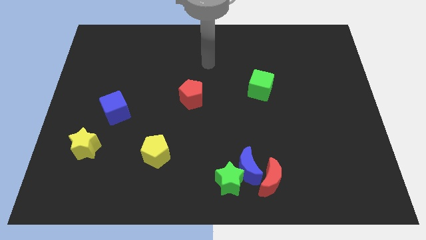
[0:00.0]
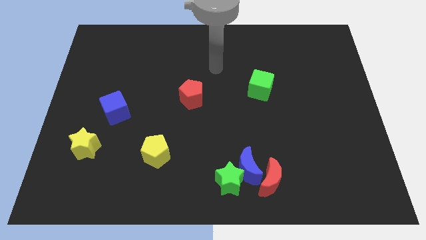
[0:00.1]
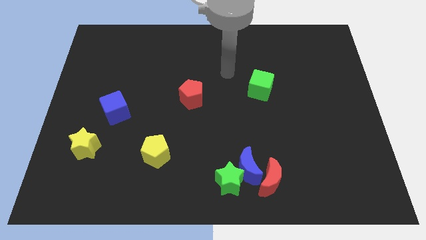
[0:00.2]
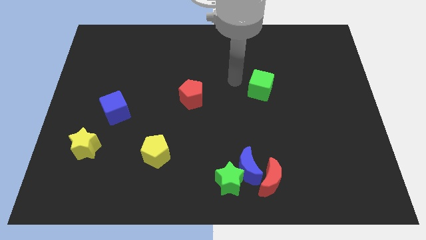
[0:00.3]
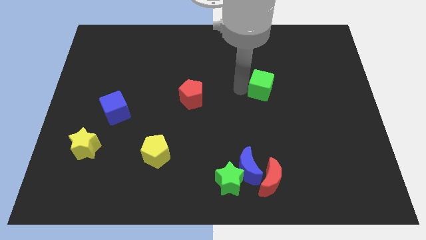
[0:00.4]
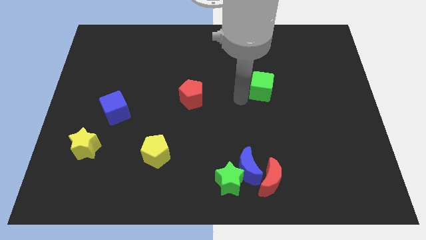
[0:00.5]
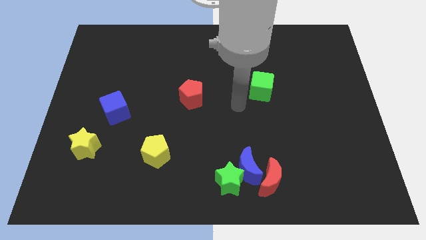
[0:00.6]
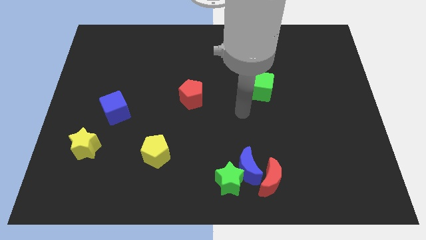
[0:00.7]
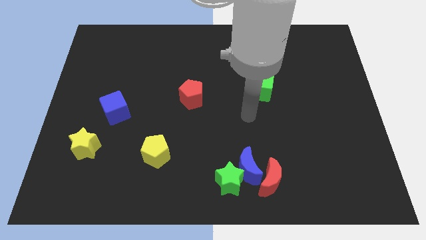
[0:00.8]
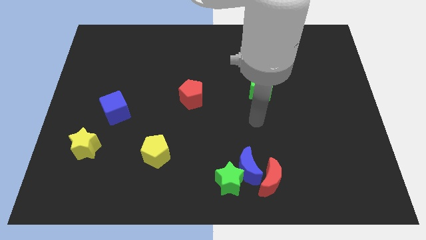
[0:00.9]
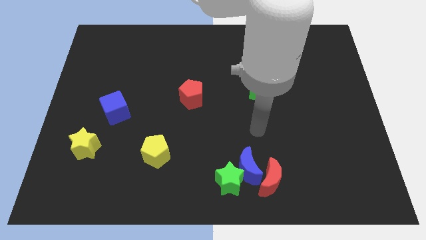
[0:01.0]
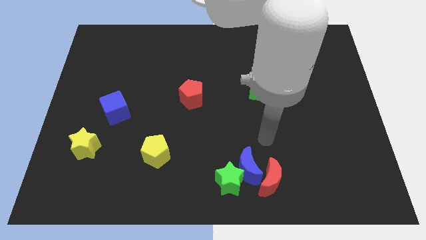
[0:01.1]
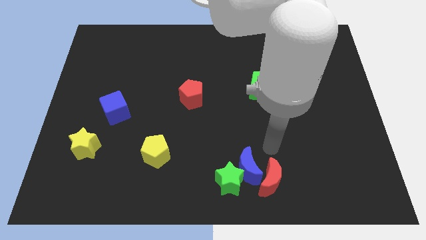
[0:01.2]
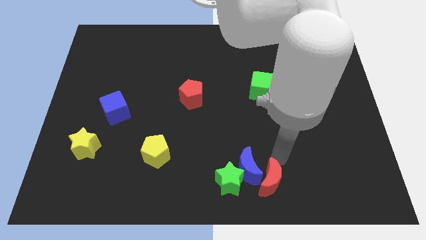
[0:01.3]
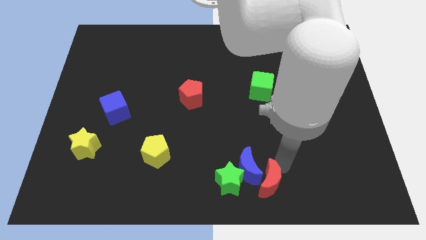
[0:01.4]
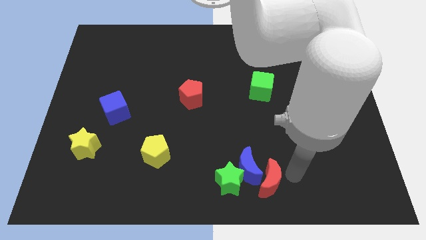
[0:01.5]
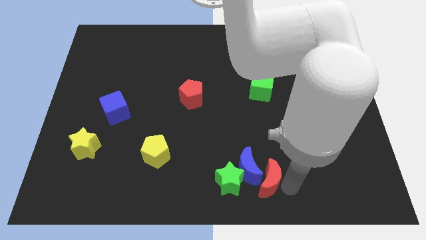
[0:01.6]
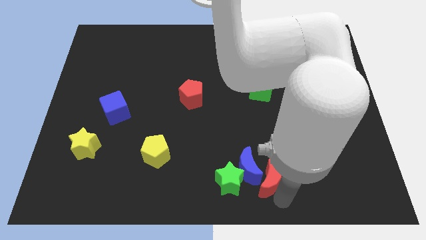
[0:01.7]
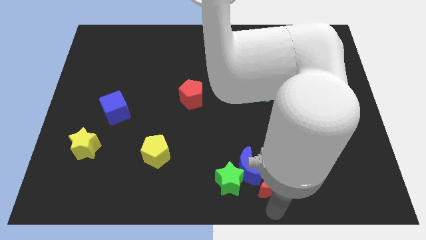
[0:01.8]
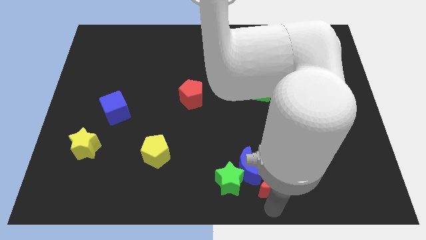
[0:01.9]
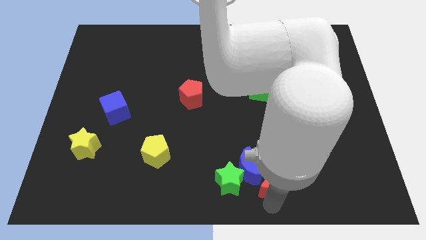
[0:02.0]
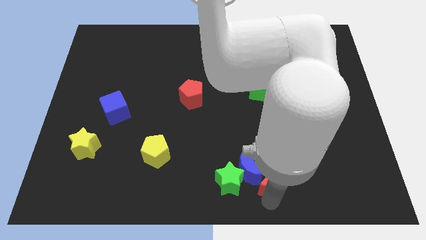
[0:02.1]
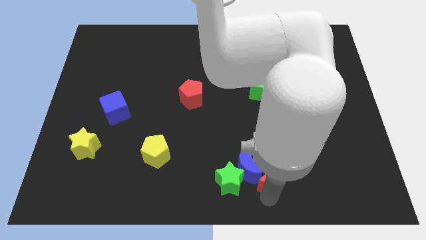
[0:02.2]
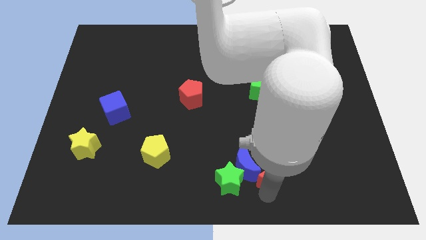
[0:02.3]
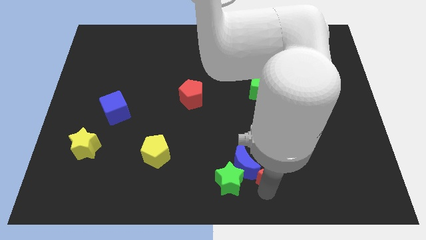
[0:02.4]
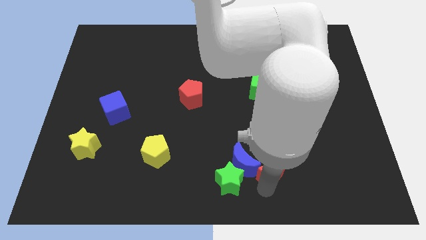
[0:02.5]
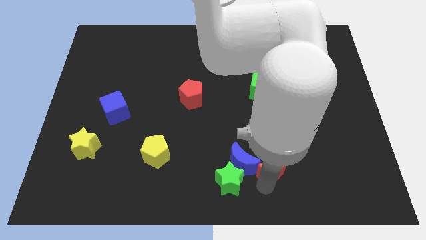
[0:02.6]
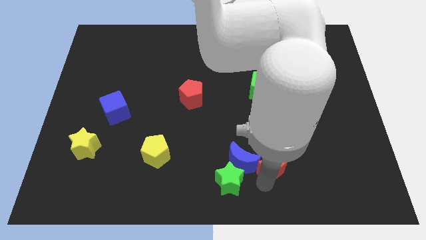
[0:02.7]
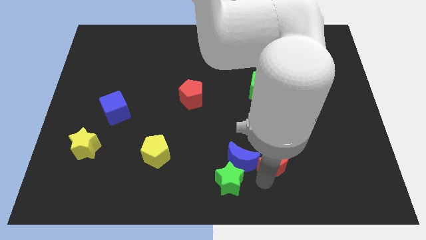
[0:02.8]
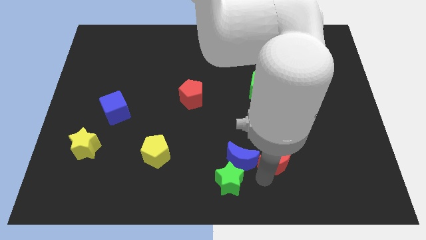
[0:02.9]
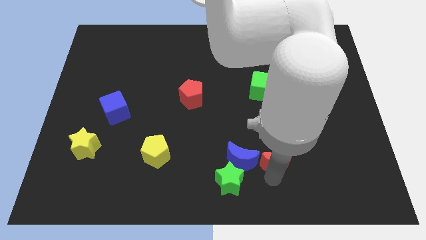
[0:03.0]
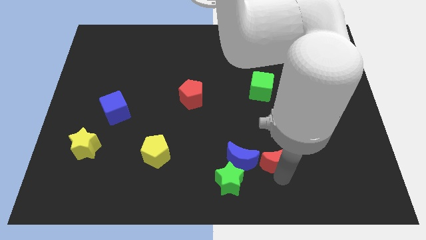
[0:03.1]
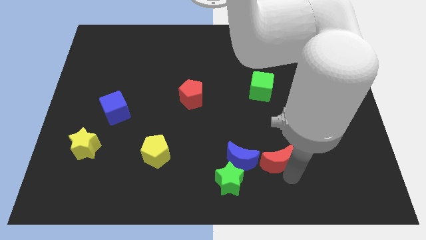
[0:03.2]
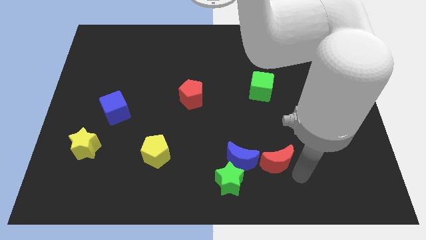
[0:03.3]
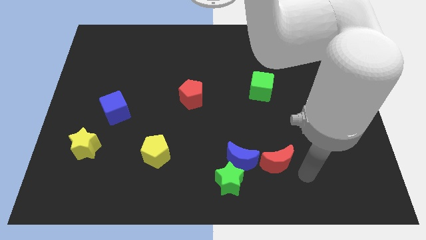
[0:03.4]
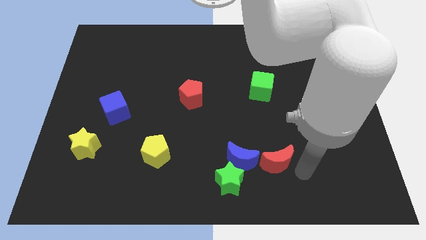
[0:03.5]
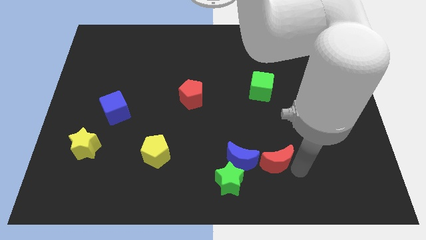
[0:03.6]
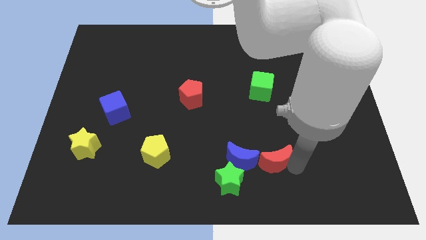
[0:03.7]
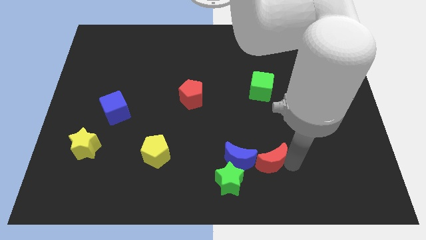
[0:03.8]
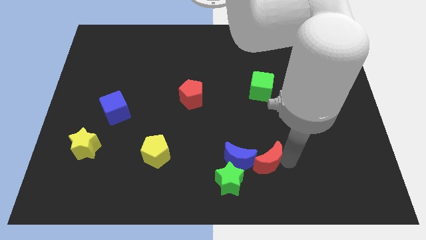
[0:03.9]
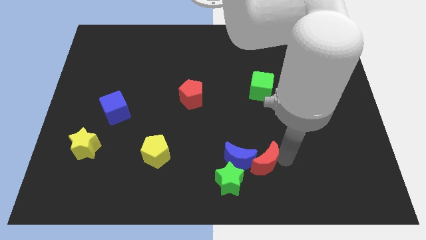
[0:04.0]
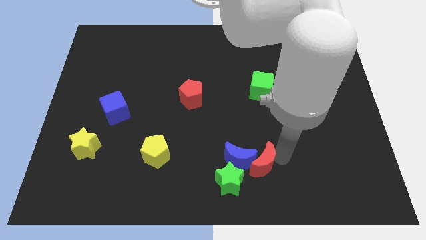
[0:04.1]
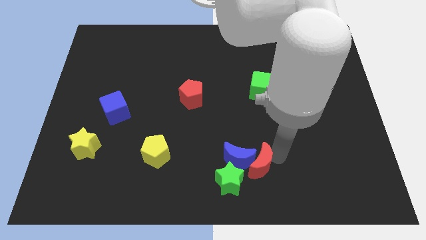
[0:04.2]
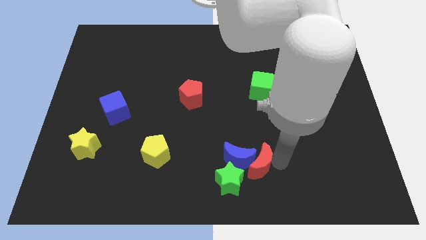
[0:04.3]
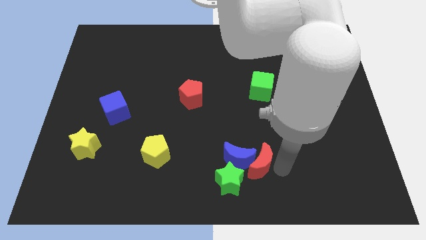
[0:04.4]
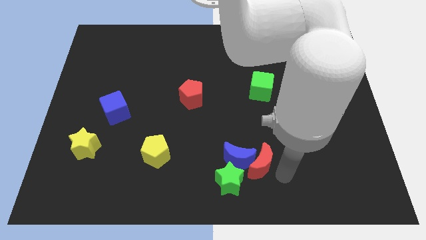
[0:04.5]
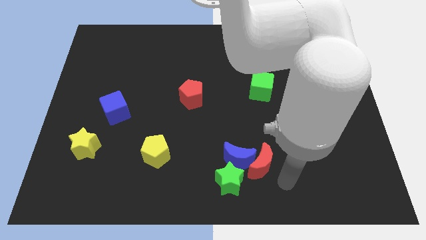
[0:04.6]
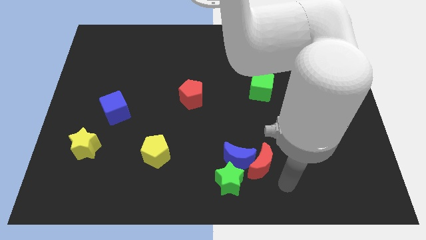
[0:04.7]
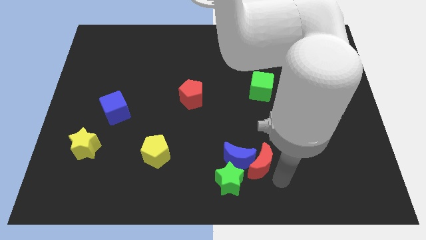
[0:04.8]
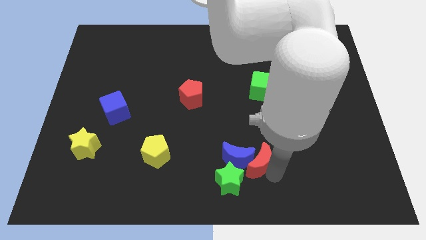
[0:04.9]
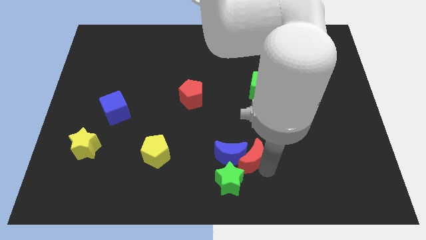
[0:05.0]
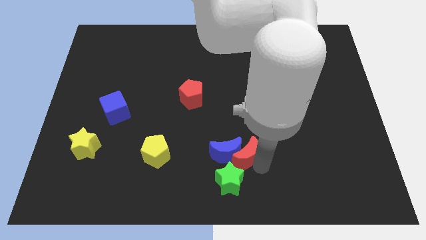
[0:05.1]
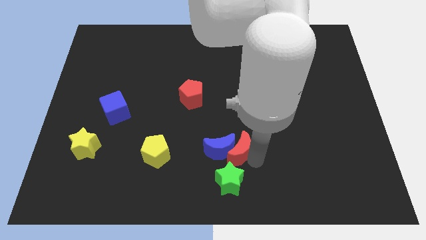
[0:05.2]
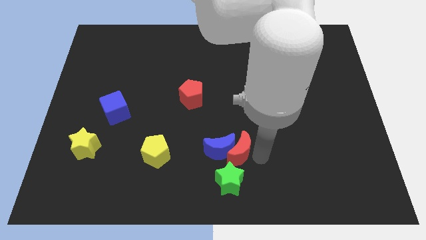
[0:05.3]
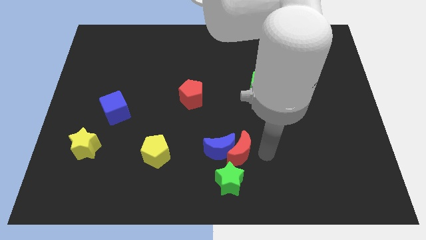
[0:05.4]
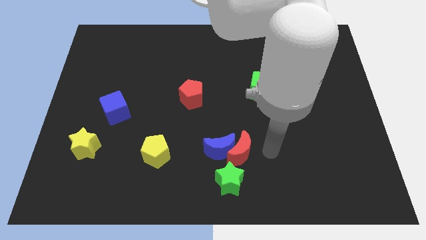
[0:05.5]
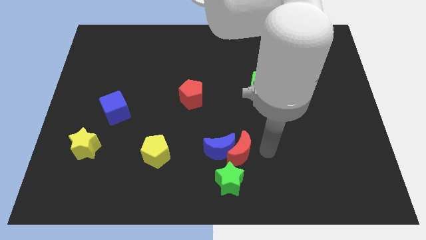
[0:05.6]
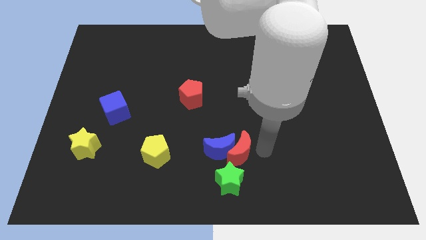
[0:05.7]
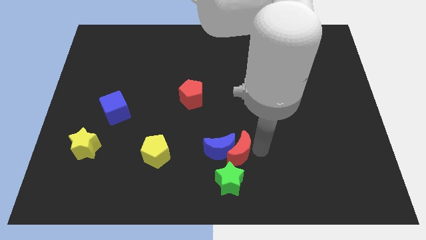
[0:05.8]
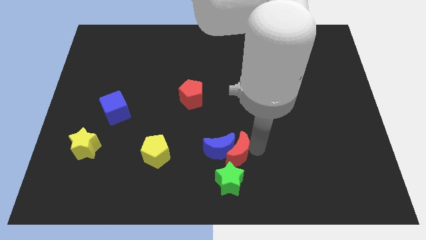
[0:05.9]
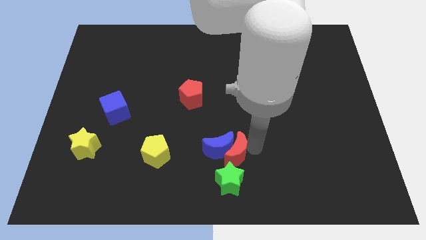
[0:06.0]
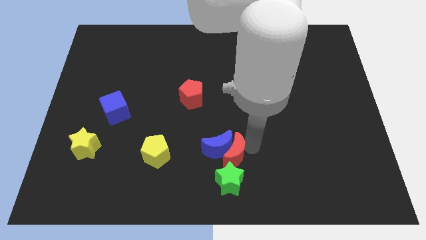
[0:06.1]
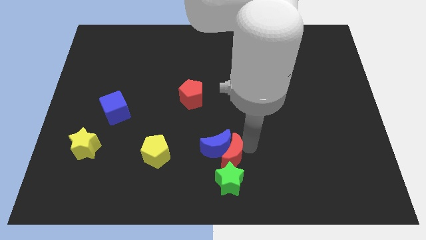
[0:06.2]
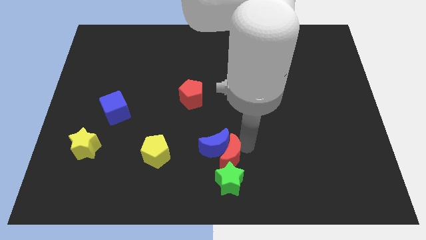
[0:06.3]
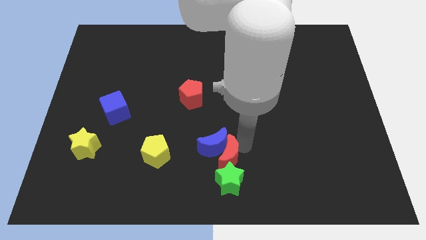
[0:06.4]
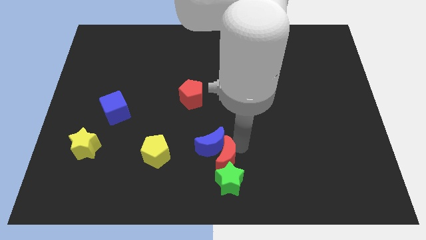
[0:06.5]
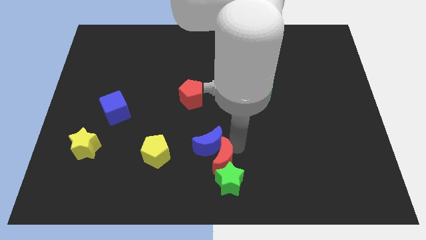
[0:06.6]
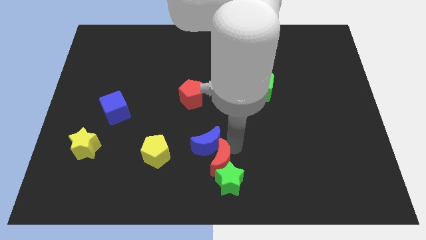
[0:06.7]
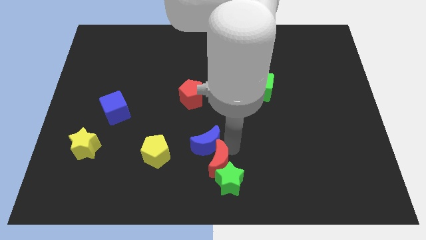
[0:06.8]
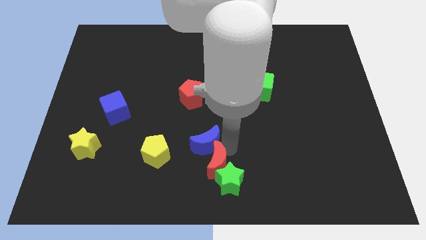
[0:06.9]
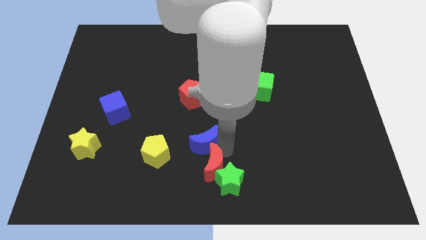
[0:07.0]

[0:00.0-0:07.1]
move the red moon to the left of the green star
